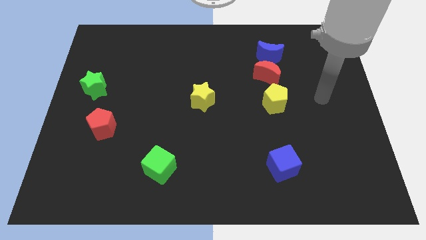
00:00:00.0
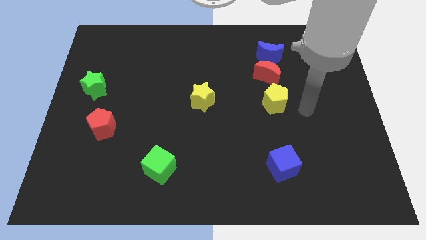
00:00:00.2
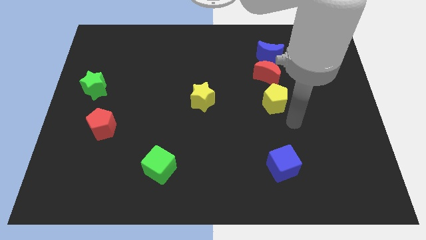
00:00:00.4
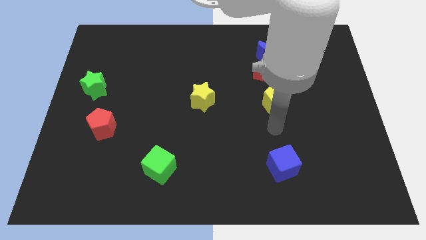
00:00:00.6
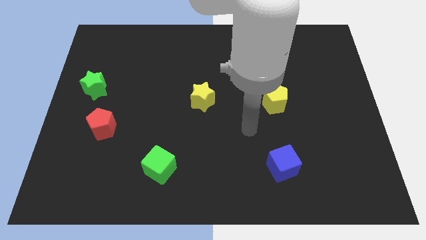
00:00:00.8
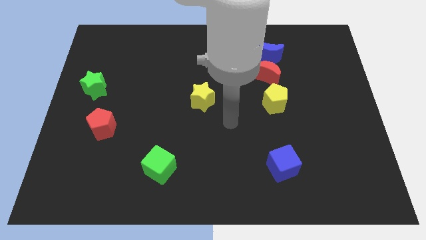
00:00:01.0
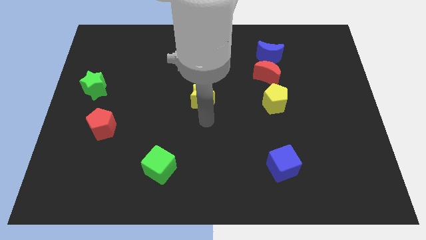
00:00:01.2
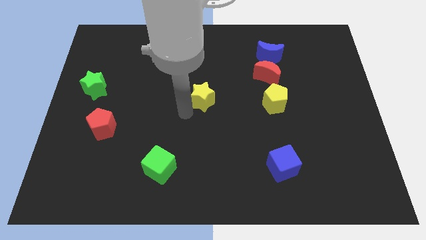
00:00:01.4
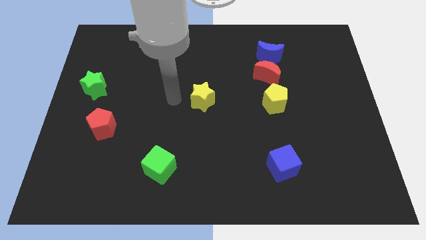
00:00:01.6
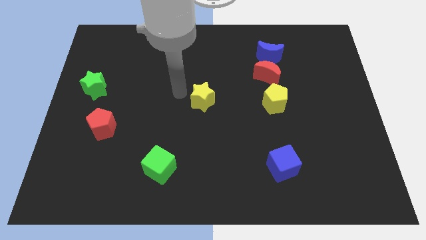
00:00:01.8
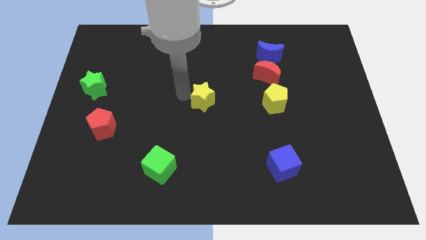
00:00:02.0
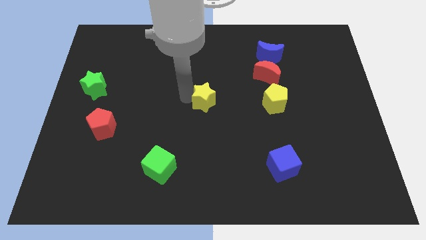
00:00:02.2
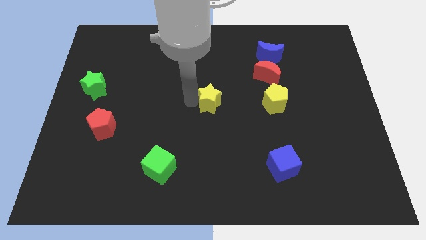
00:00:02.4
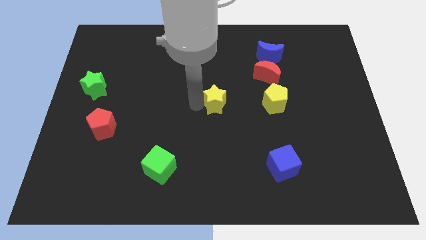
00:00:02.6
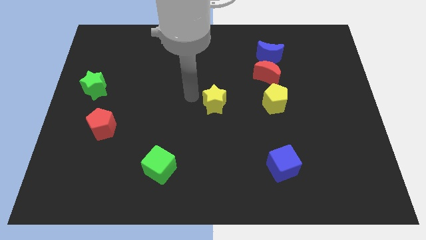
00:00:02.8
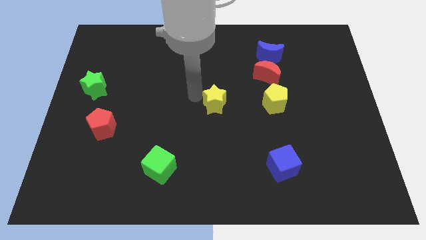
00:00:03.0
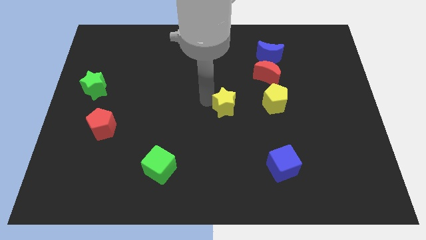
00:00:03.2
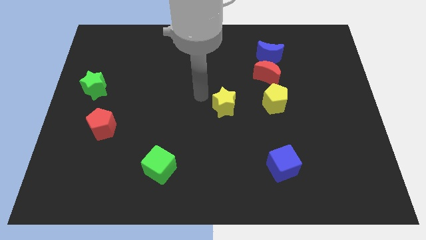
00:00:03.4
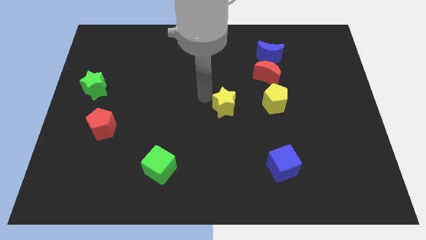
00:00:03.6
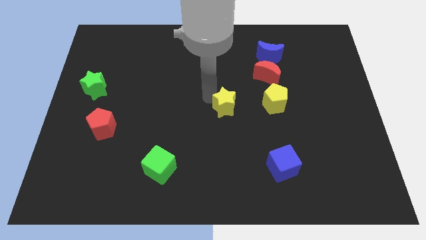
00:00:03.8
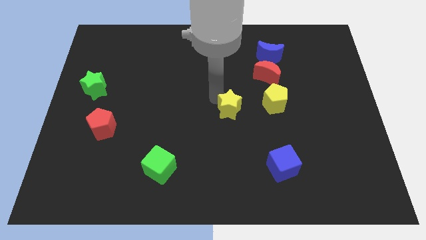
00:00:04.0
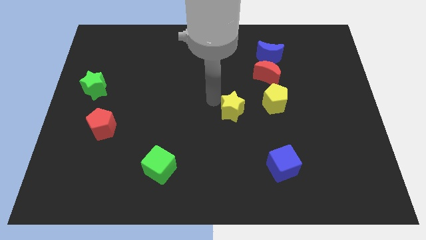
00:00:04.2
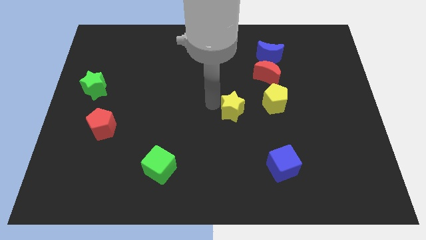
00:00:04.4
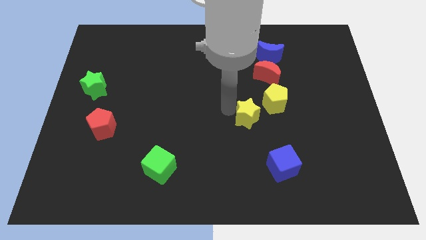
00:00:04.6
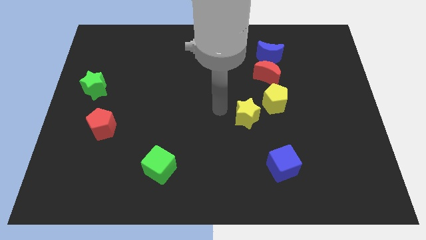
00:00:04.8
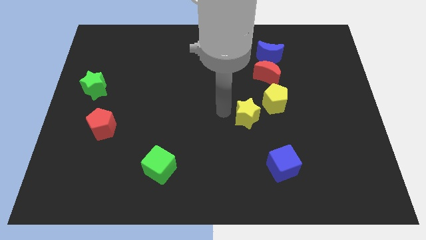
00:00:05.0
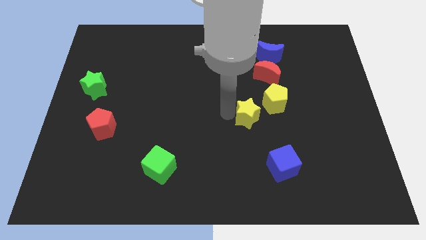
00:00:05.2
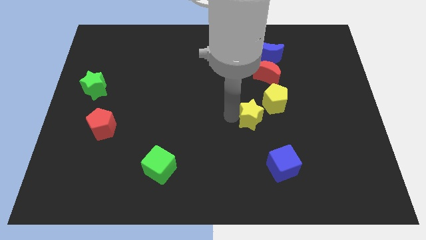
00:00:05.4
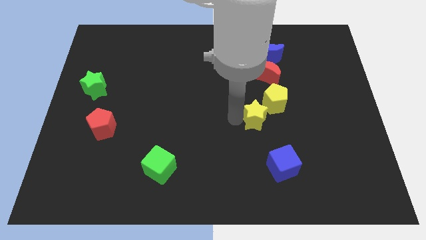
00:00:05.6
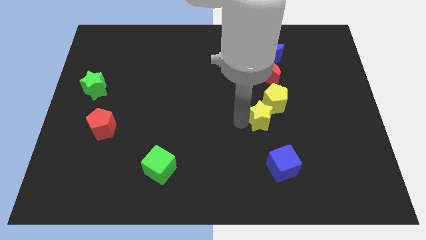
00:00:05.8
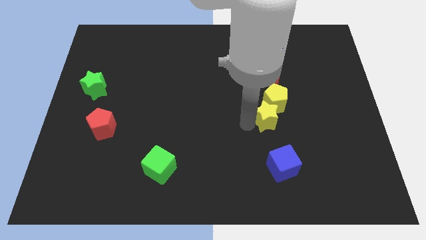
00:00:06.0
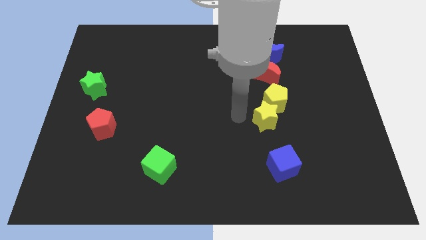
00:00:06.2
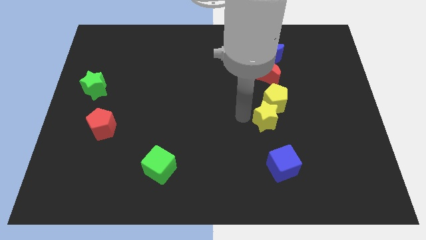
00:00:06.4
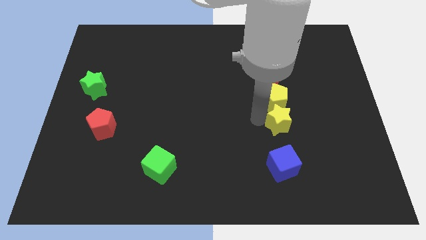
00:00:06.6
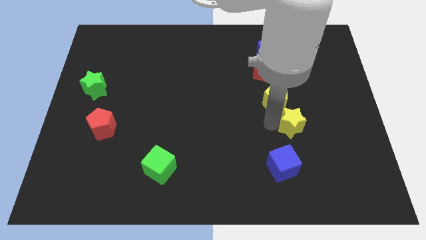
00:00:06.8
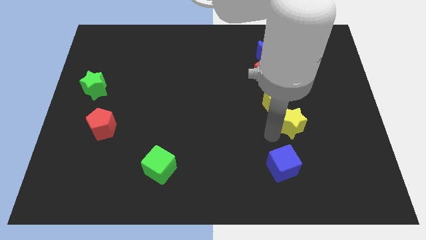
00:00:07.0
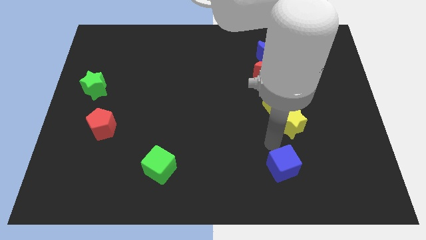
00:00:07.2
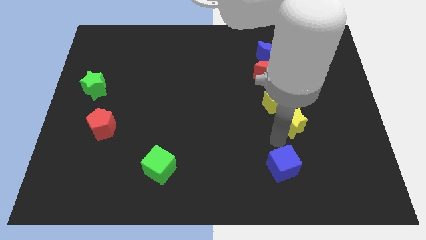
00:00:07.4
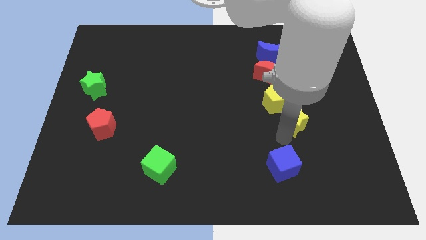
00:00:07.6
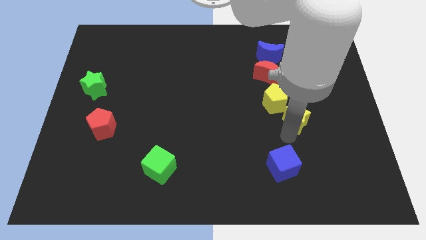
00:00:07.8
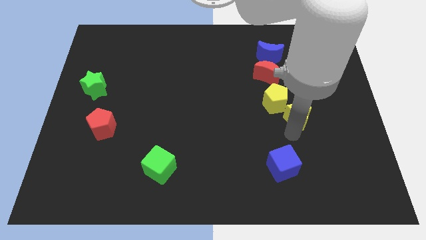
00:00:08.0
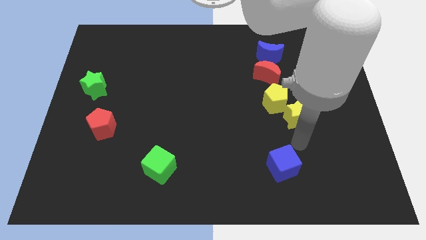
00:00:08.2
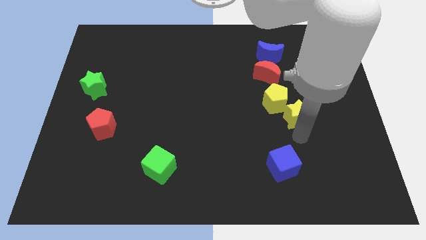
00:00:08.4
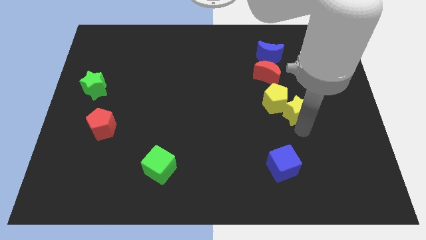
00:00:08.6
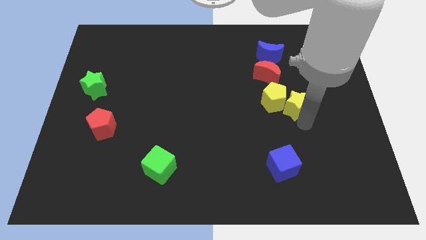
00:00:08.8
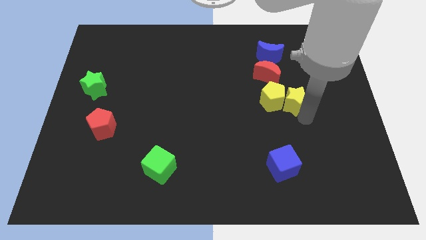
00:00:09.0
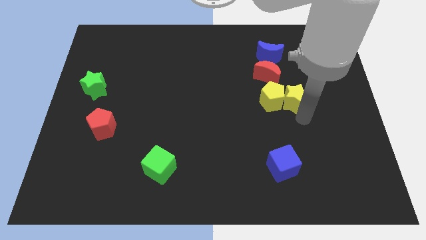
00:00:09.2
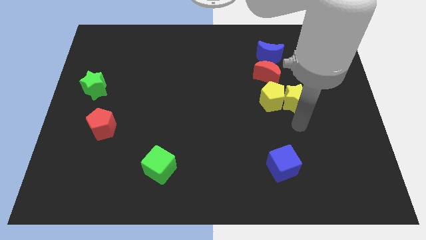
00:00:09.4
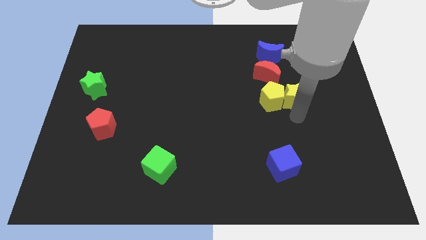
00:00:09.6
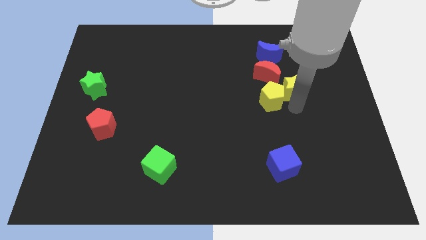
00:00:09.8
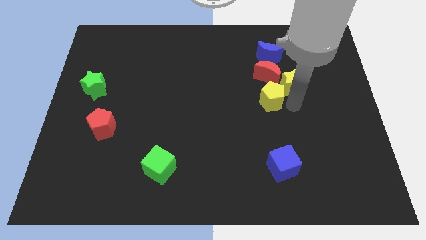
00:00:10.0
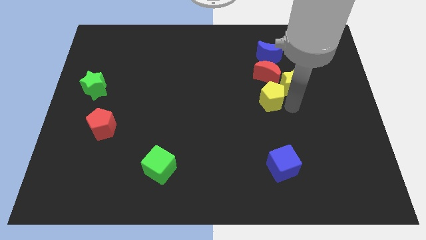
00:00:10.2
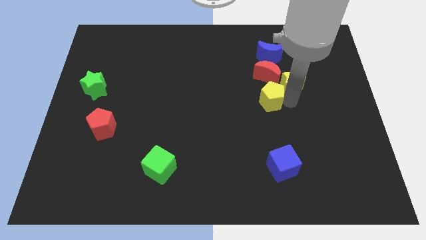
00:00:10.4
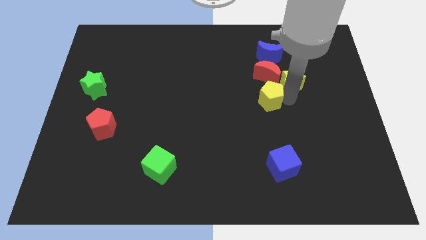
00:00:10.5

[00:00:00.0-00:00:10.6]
put the yellow star diagonally down and to the right of the blue moon

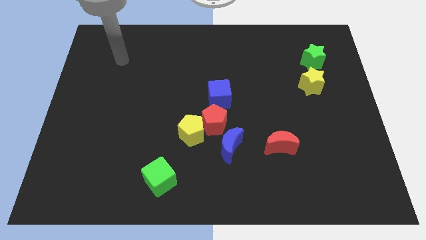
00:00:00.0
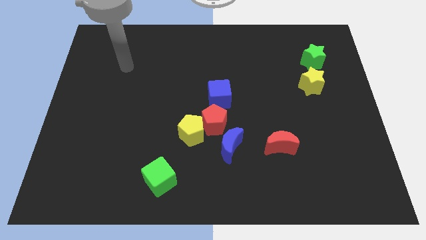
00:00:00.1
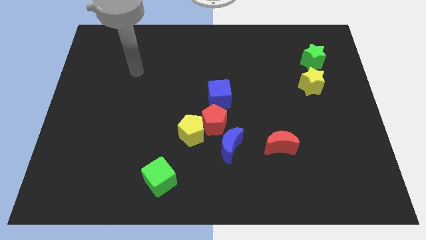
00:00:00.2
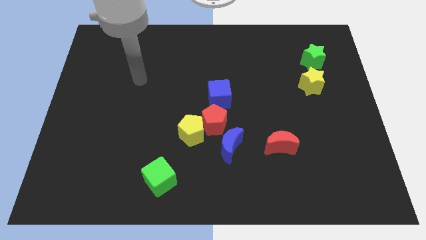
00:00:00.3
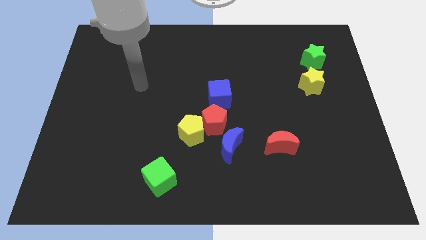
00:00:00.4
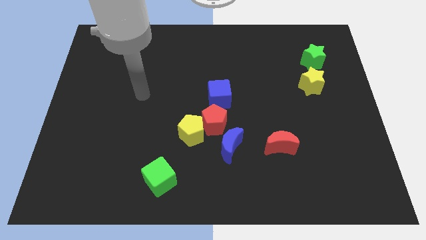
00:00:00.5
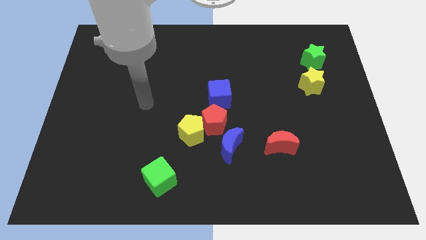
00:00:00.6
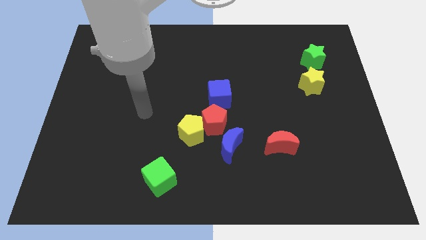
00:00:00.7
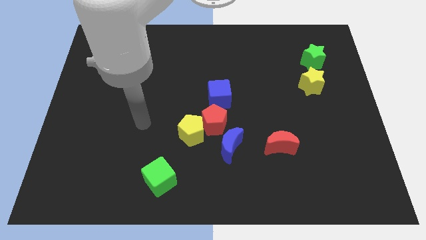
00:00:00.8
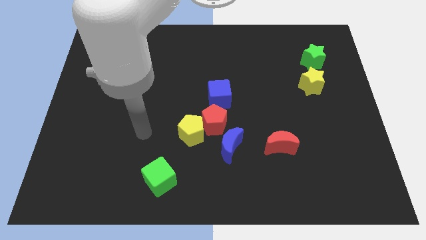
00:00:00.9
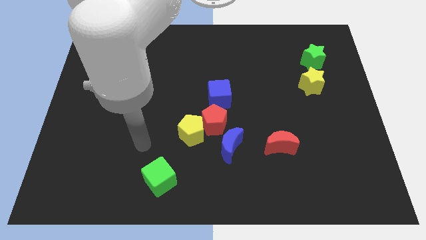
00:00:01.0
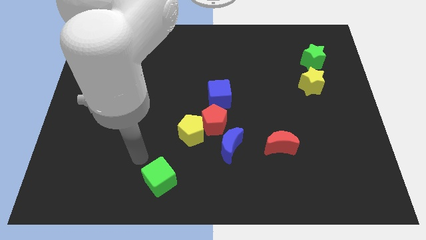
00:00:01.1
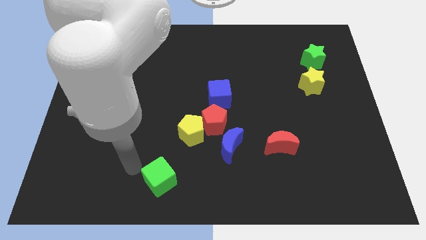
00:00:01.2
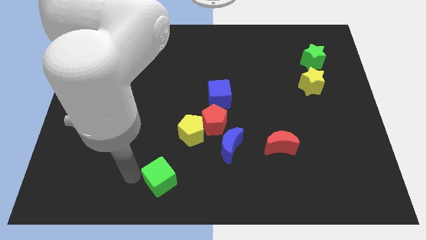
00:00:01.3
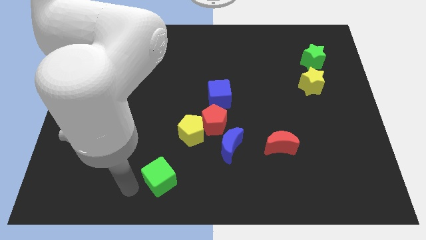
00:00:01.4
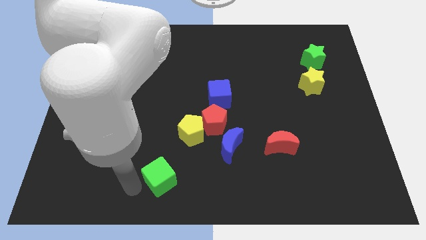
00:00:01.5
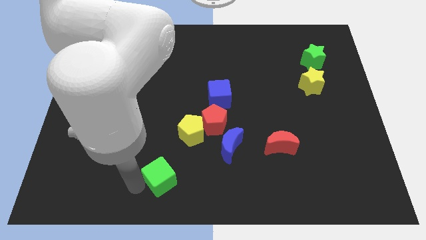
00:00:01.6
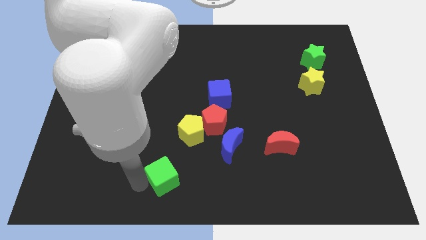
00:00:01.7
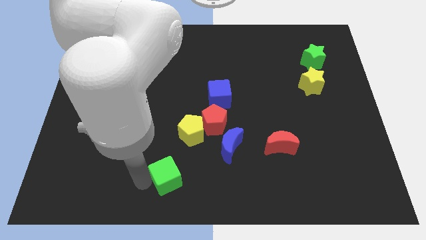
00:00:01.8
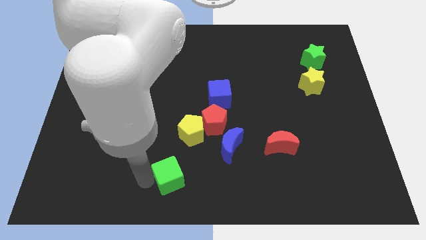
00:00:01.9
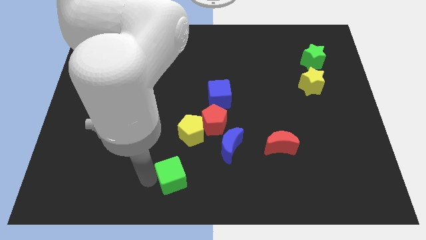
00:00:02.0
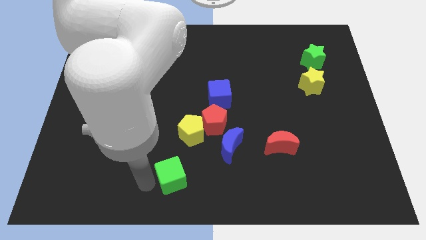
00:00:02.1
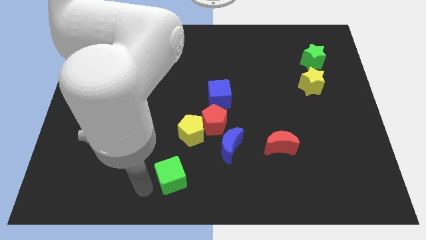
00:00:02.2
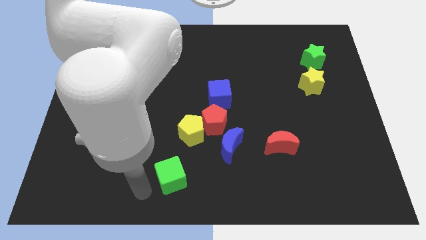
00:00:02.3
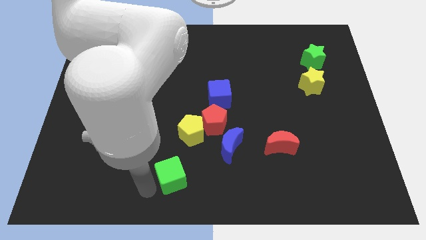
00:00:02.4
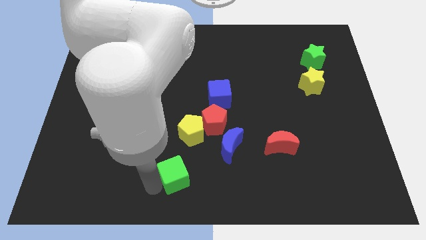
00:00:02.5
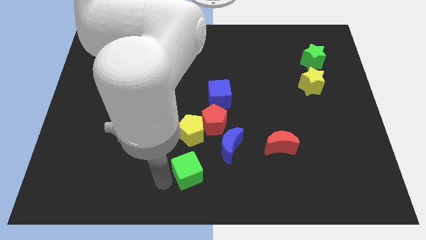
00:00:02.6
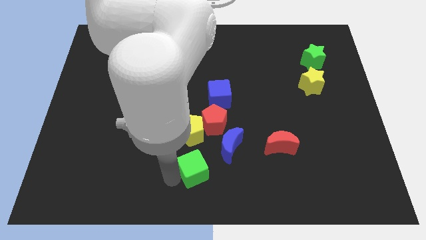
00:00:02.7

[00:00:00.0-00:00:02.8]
push the green cube below the red pentagon

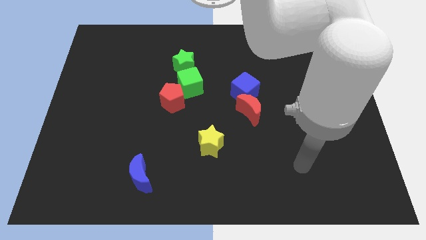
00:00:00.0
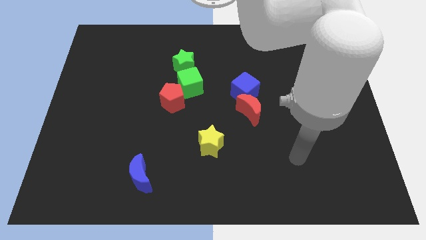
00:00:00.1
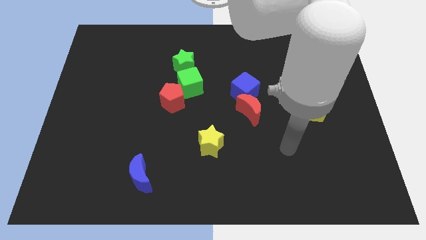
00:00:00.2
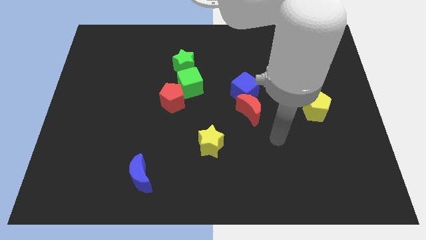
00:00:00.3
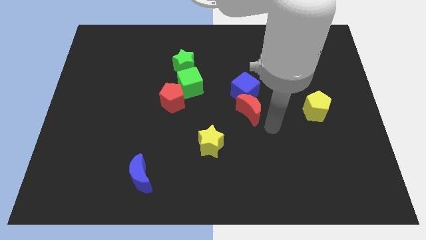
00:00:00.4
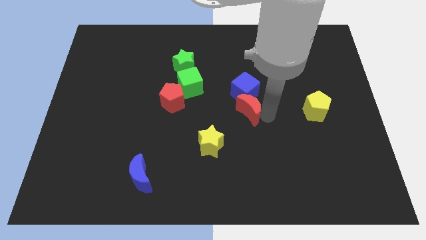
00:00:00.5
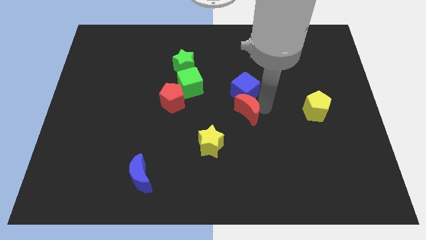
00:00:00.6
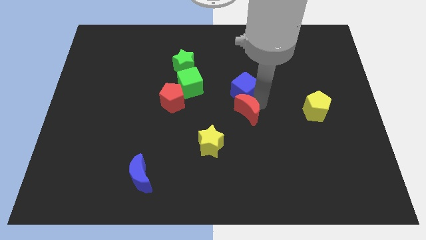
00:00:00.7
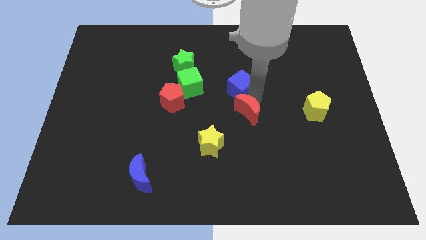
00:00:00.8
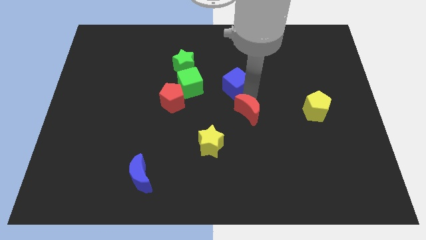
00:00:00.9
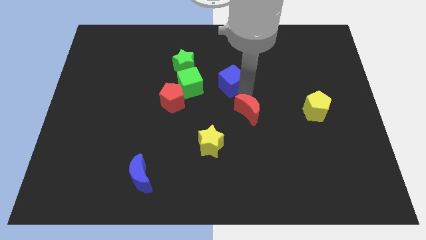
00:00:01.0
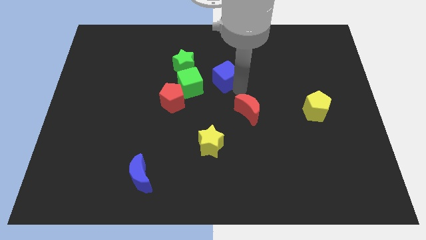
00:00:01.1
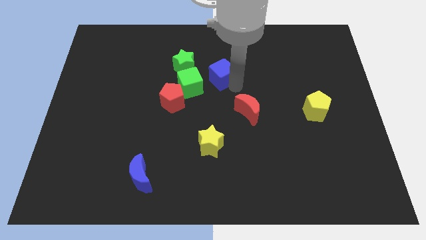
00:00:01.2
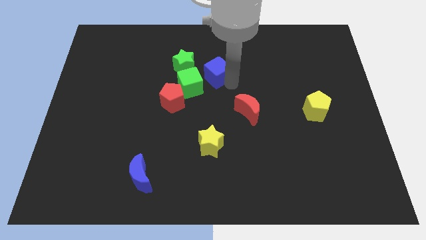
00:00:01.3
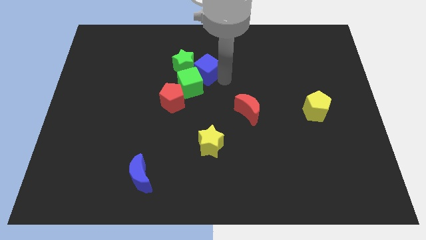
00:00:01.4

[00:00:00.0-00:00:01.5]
push the blue cube to the top side of the green cube
